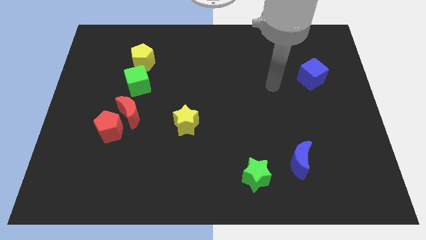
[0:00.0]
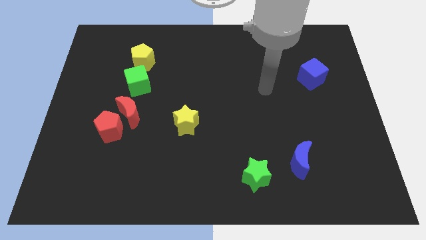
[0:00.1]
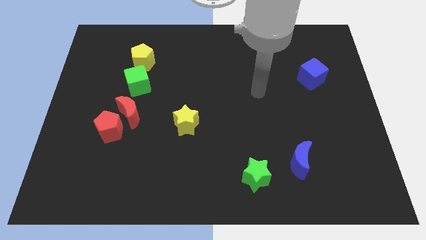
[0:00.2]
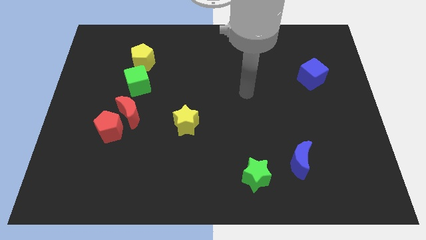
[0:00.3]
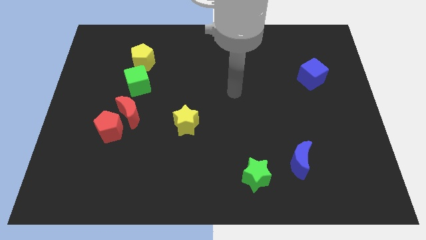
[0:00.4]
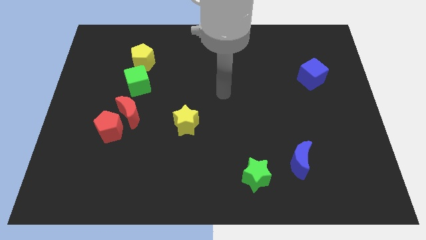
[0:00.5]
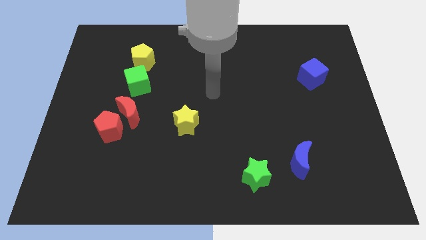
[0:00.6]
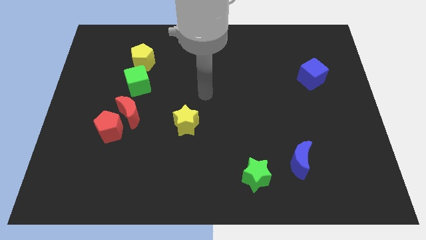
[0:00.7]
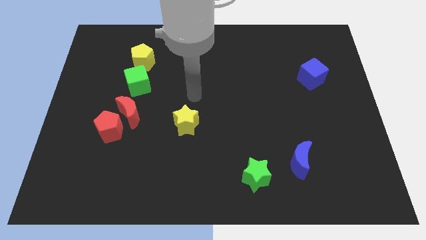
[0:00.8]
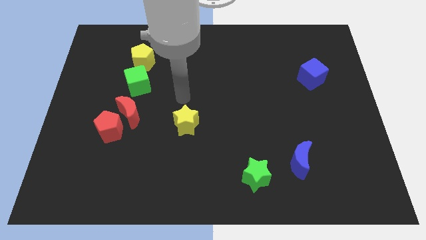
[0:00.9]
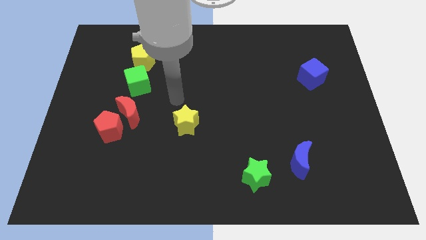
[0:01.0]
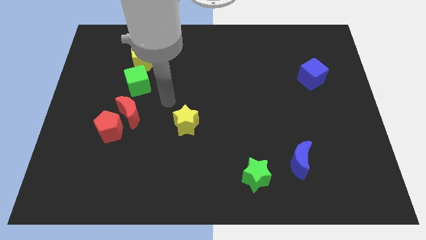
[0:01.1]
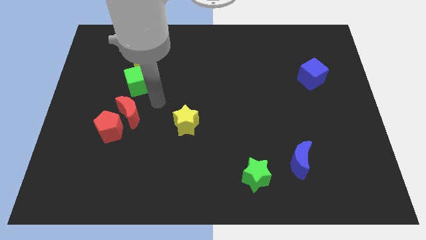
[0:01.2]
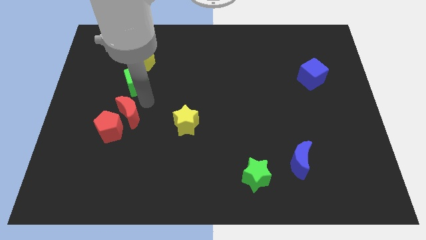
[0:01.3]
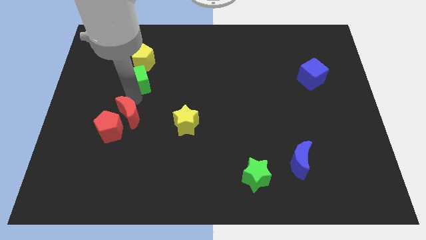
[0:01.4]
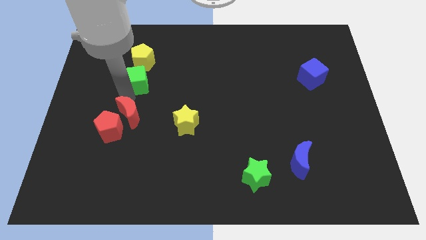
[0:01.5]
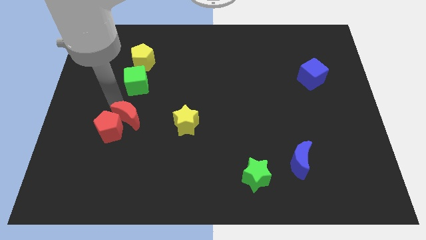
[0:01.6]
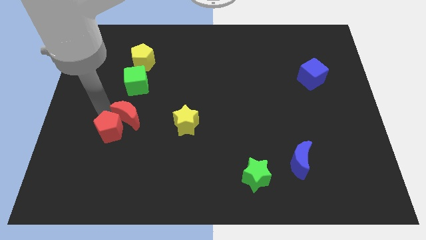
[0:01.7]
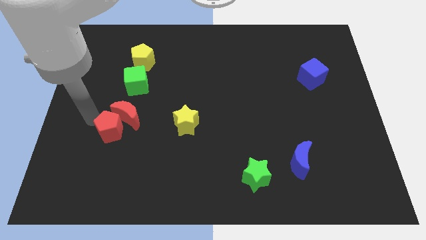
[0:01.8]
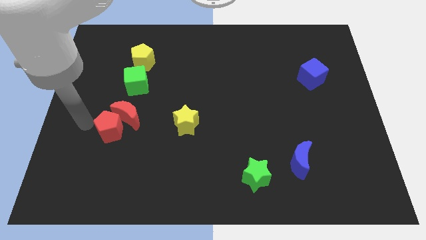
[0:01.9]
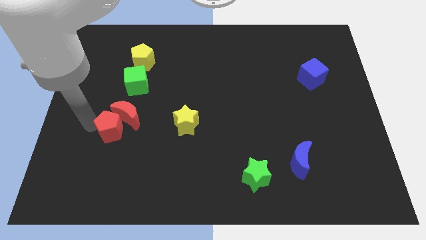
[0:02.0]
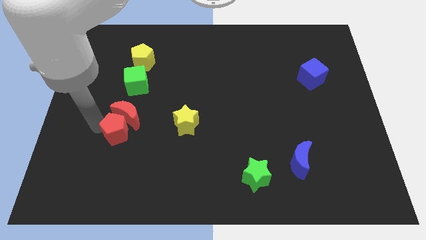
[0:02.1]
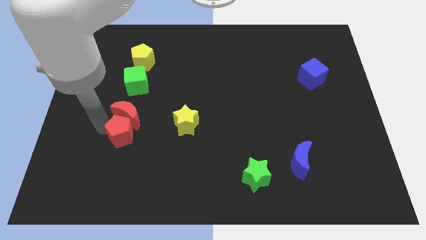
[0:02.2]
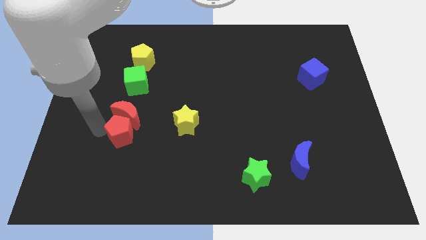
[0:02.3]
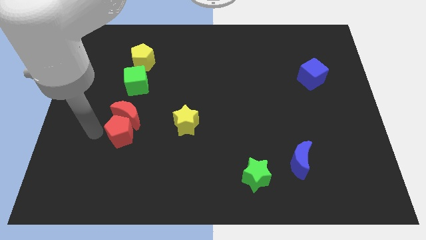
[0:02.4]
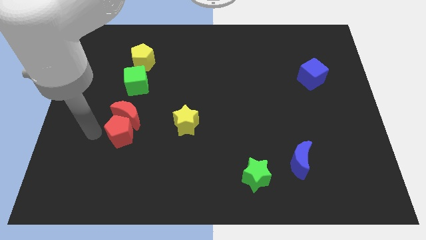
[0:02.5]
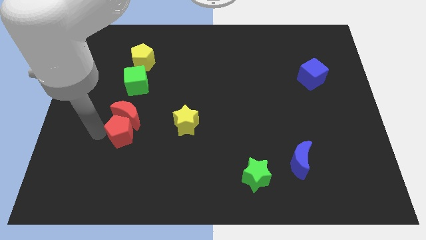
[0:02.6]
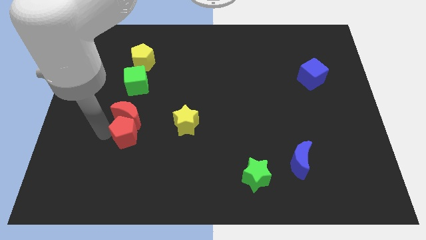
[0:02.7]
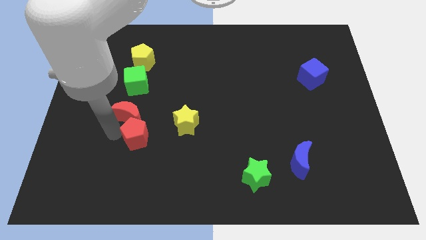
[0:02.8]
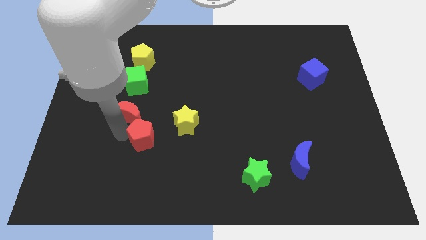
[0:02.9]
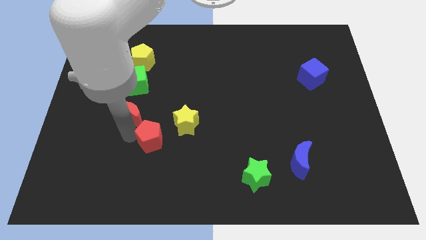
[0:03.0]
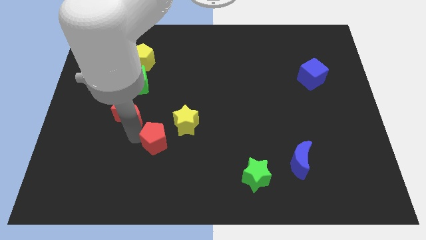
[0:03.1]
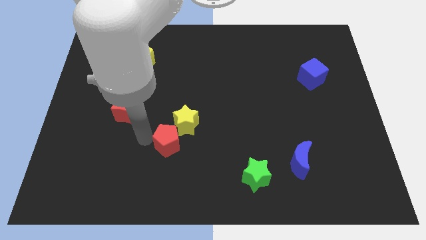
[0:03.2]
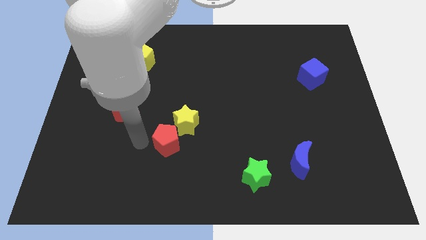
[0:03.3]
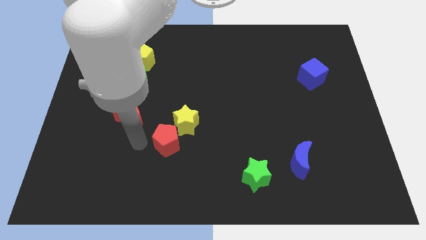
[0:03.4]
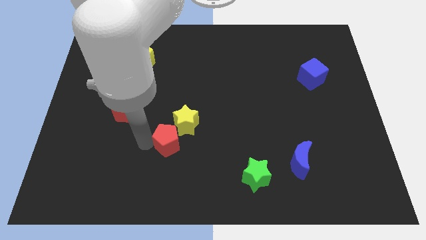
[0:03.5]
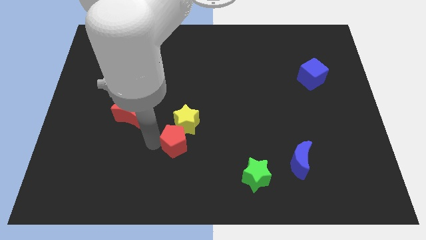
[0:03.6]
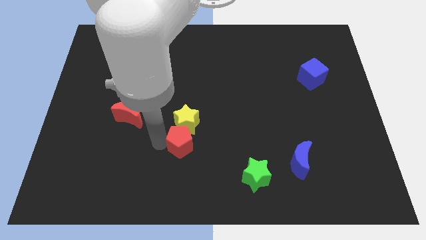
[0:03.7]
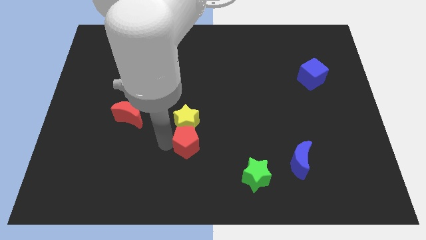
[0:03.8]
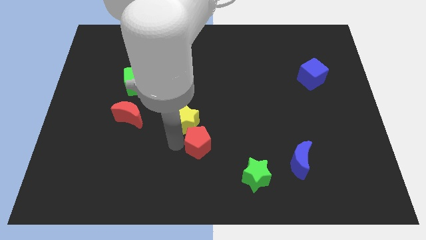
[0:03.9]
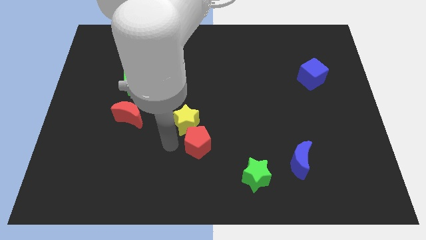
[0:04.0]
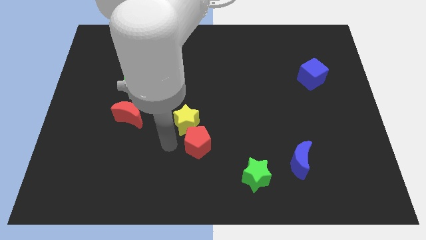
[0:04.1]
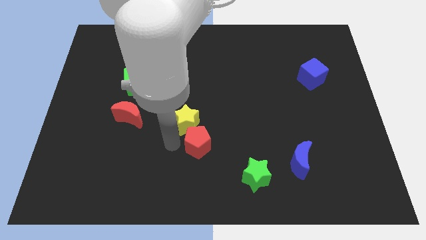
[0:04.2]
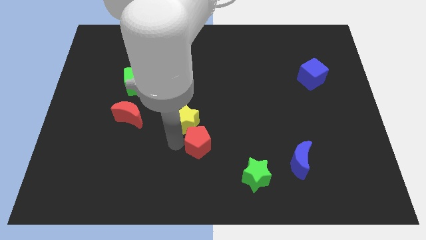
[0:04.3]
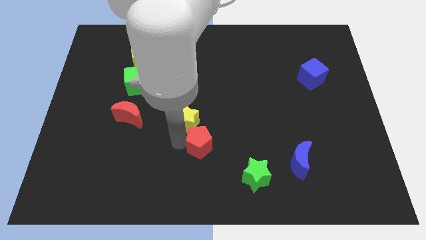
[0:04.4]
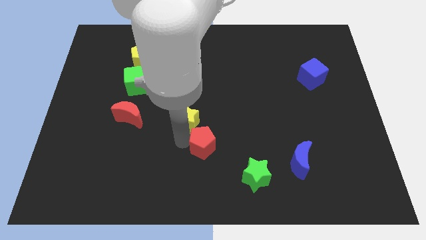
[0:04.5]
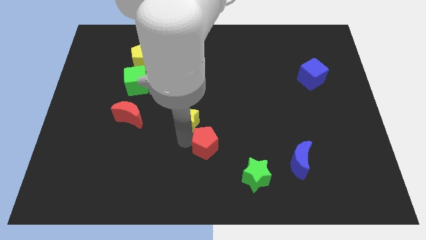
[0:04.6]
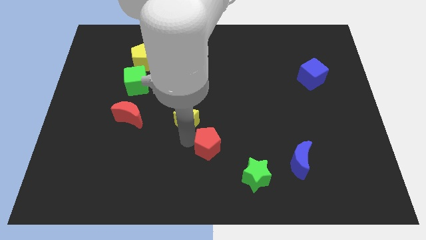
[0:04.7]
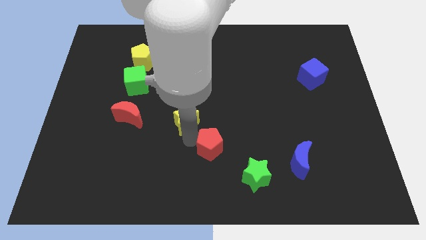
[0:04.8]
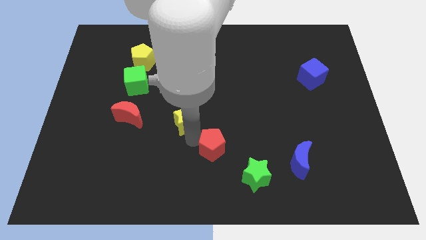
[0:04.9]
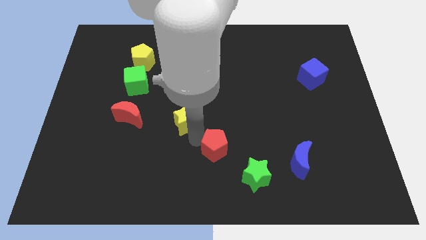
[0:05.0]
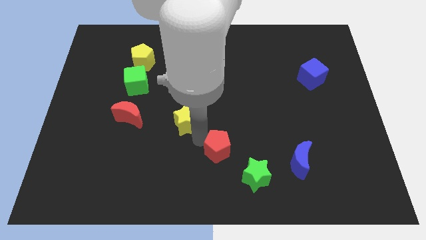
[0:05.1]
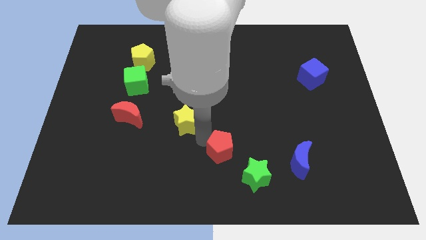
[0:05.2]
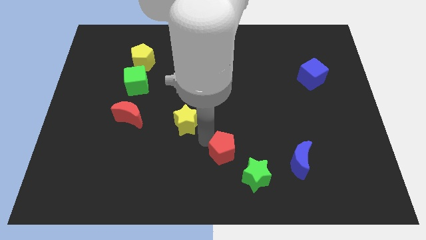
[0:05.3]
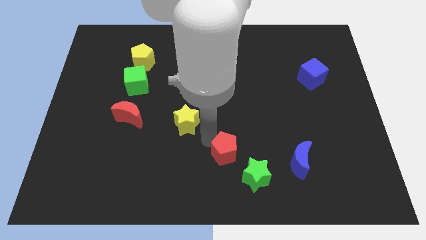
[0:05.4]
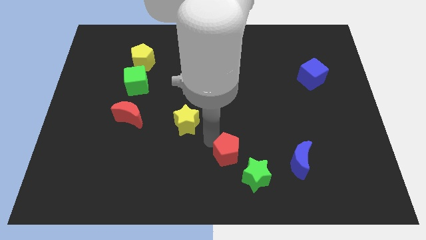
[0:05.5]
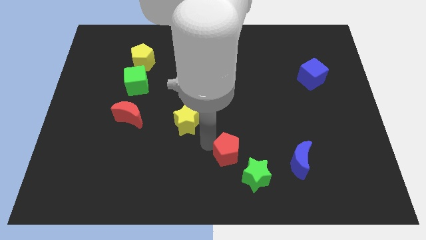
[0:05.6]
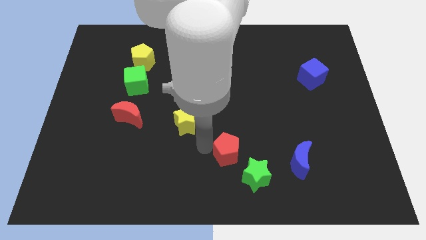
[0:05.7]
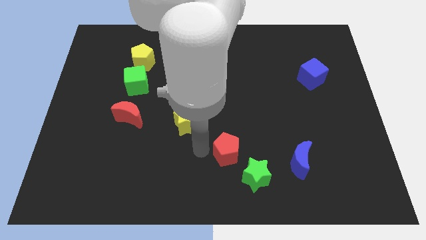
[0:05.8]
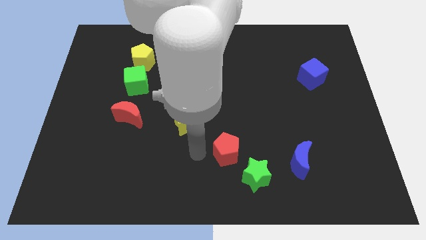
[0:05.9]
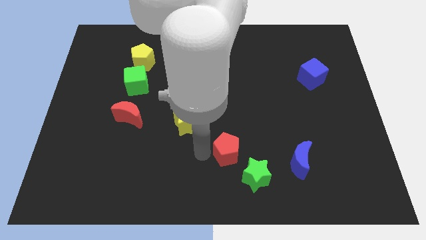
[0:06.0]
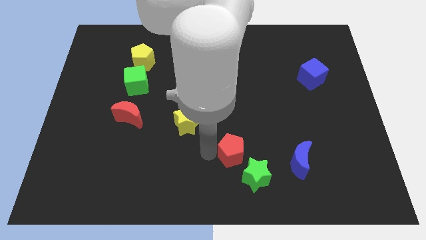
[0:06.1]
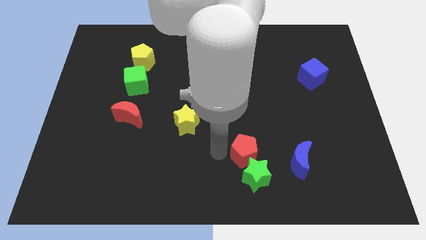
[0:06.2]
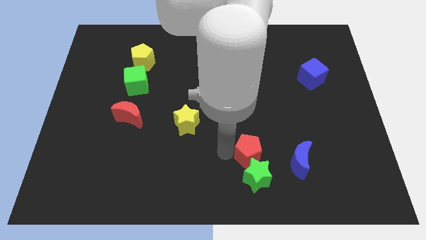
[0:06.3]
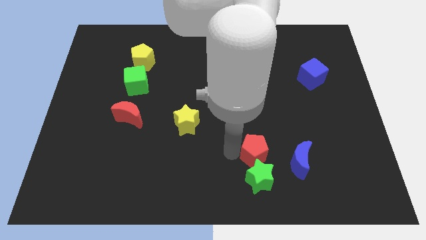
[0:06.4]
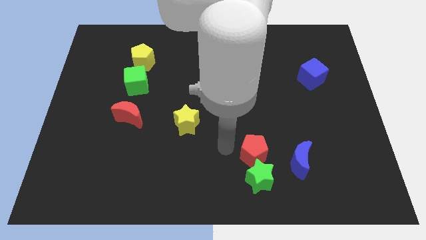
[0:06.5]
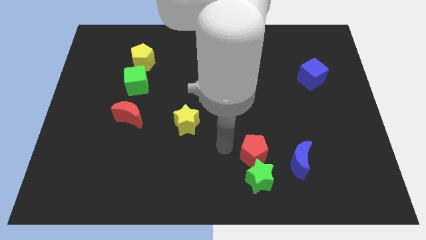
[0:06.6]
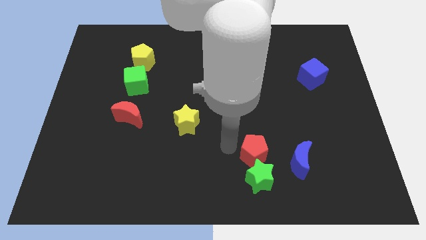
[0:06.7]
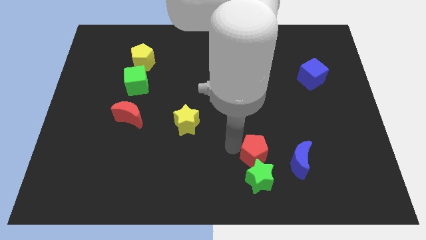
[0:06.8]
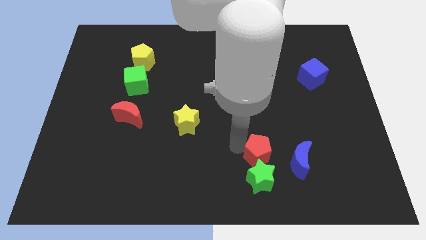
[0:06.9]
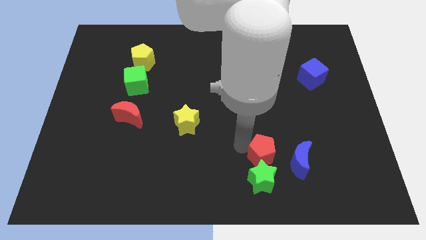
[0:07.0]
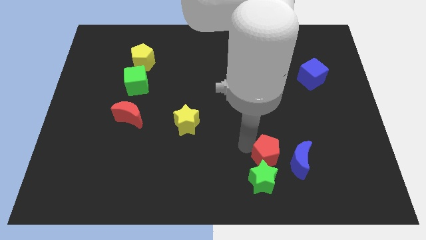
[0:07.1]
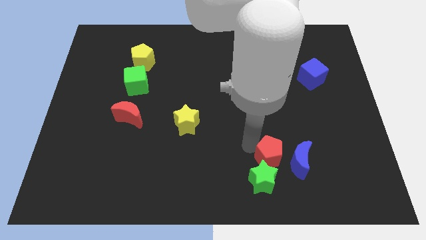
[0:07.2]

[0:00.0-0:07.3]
push the red pentagon next to the blue moon
